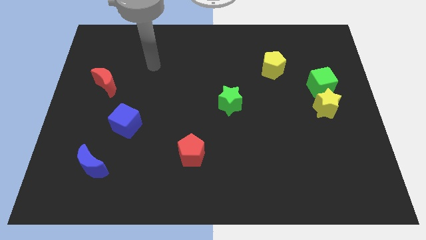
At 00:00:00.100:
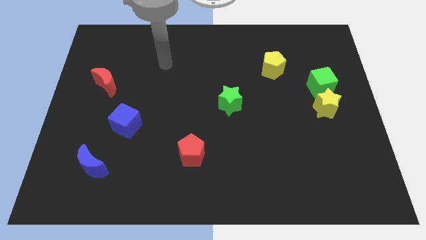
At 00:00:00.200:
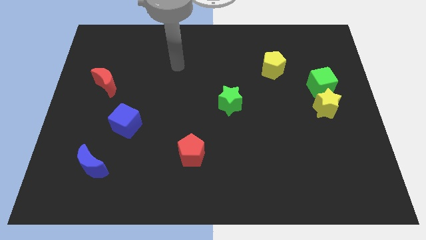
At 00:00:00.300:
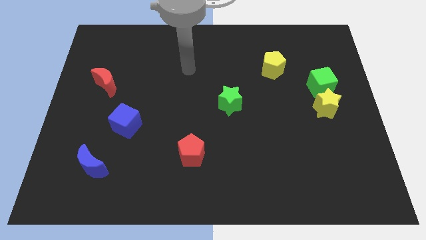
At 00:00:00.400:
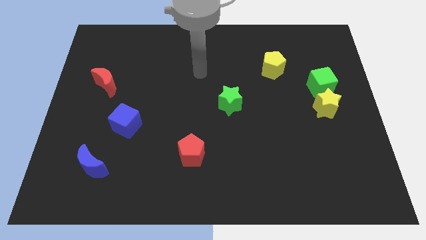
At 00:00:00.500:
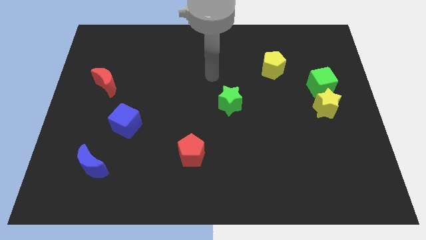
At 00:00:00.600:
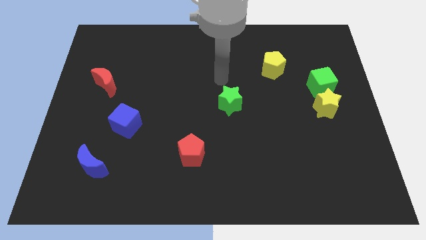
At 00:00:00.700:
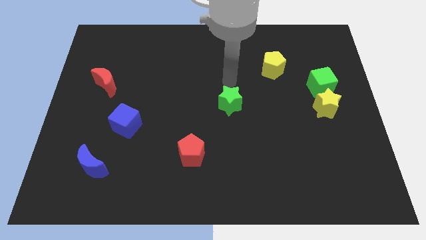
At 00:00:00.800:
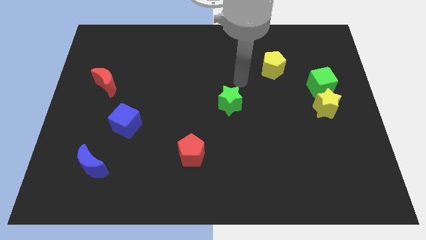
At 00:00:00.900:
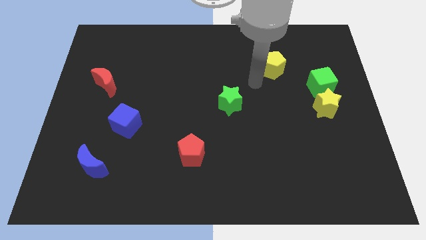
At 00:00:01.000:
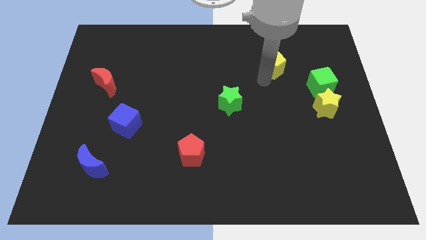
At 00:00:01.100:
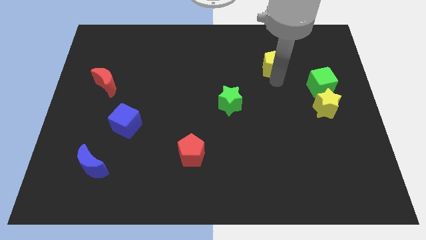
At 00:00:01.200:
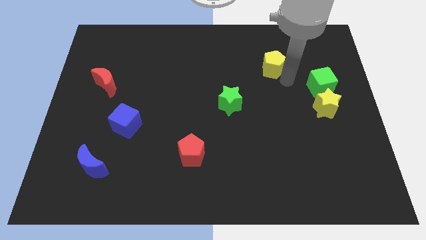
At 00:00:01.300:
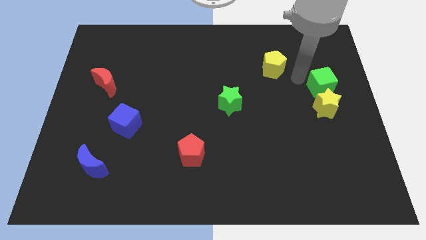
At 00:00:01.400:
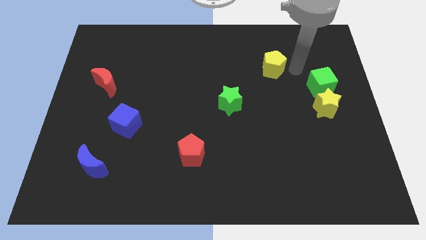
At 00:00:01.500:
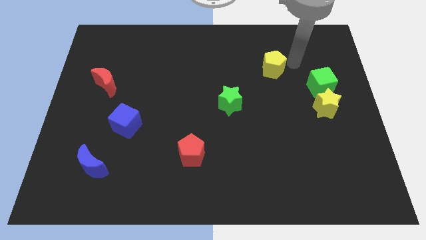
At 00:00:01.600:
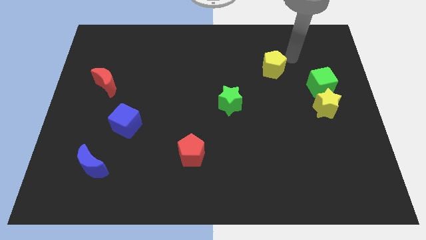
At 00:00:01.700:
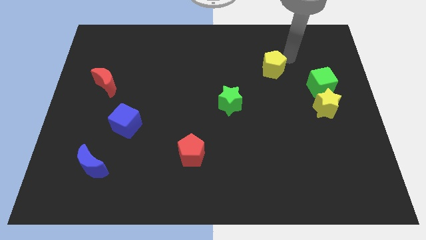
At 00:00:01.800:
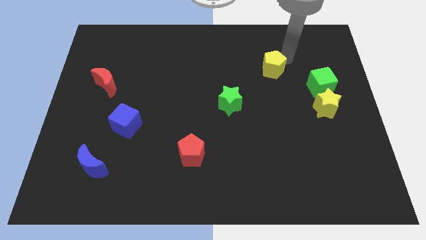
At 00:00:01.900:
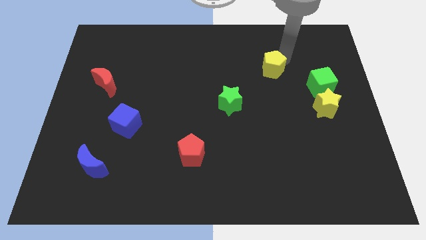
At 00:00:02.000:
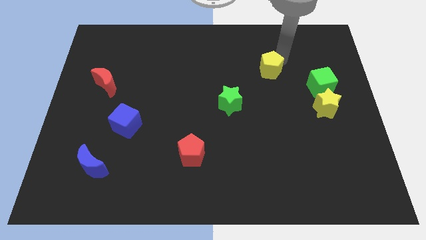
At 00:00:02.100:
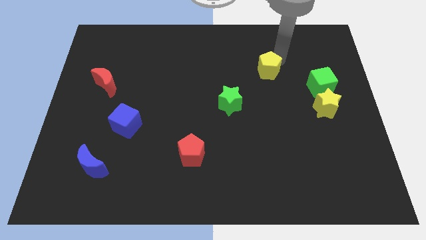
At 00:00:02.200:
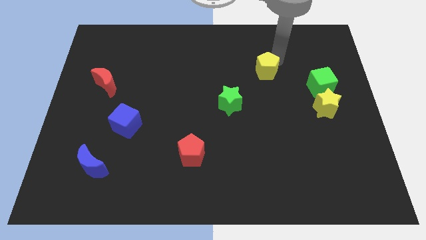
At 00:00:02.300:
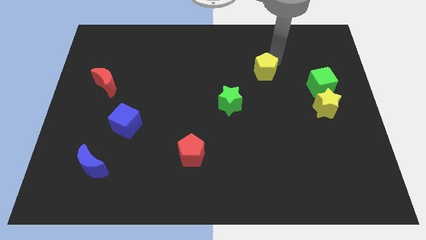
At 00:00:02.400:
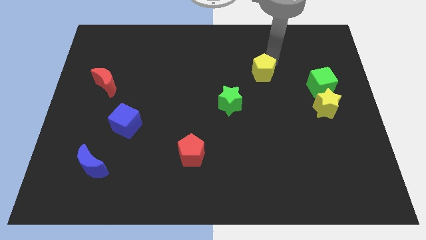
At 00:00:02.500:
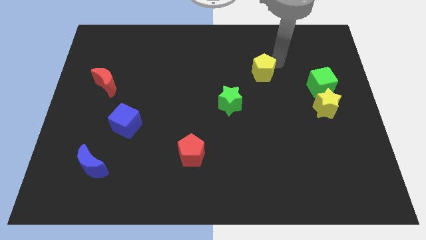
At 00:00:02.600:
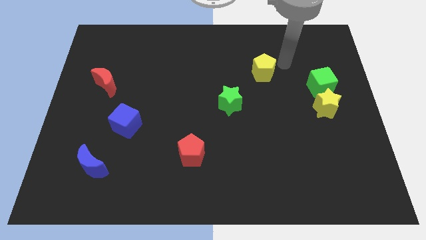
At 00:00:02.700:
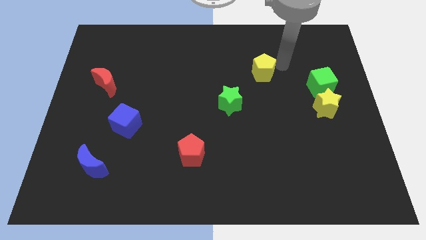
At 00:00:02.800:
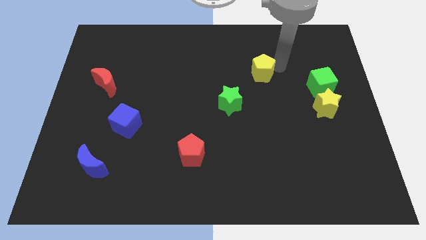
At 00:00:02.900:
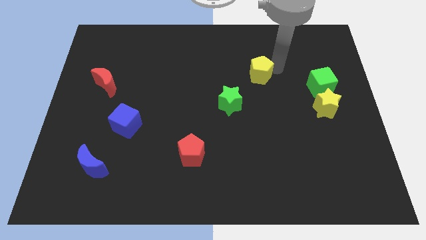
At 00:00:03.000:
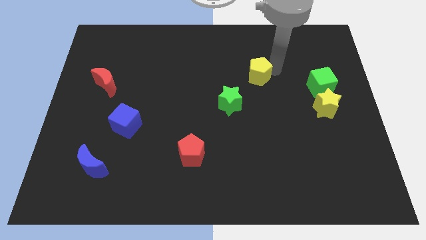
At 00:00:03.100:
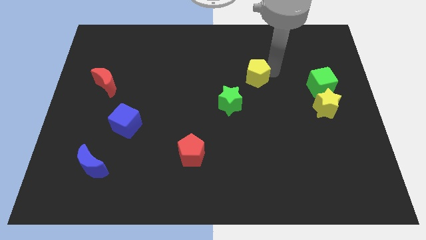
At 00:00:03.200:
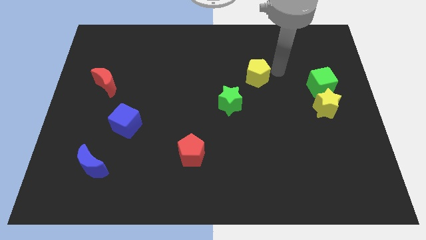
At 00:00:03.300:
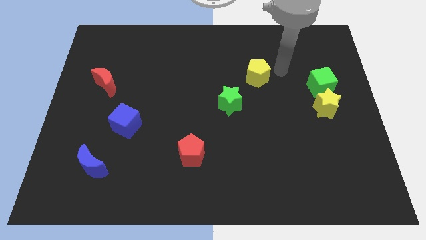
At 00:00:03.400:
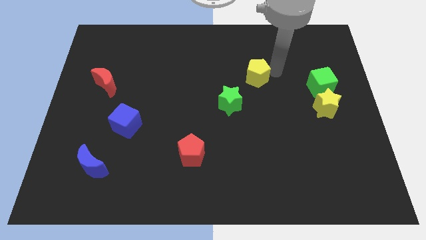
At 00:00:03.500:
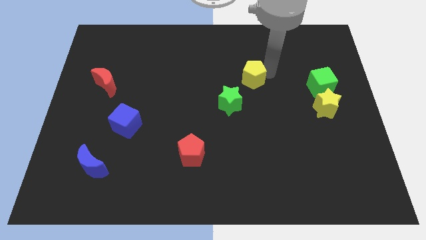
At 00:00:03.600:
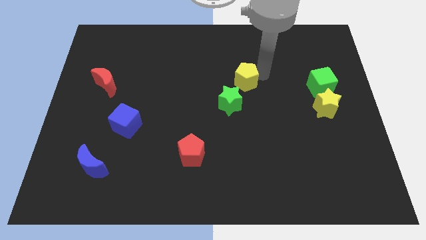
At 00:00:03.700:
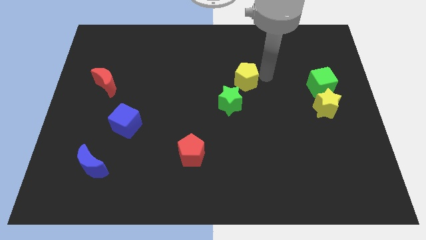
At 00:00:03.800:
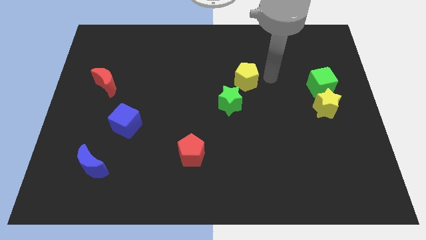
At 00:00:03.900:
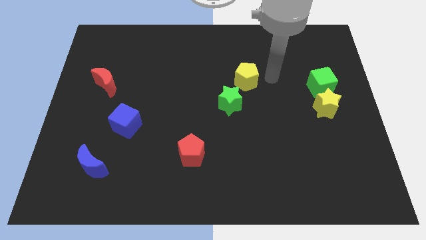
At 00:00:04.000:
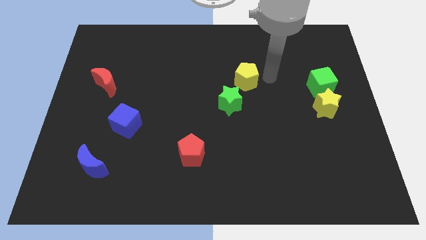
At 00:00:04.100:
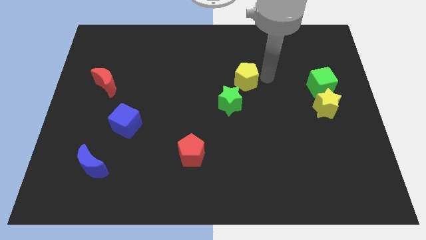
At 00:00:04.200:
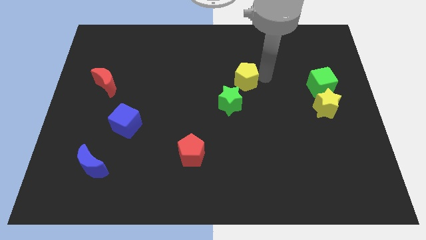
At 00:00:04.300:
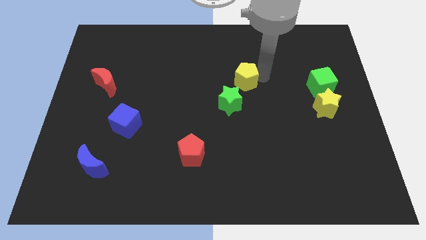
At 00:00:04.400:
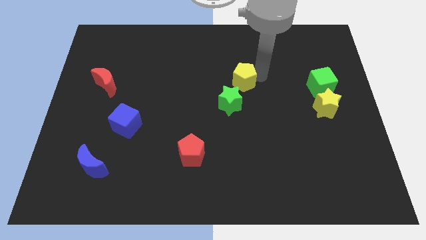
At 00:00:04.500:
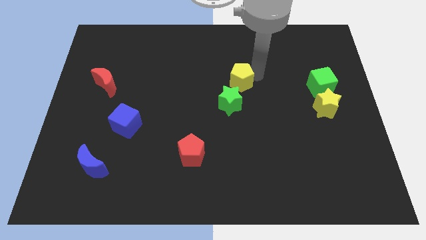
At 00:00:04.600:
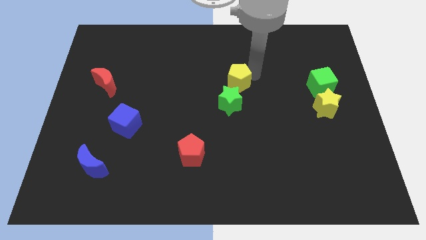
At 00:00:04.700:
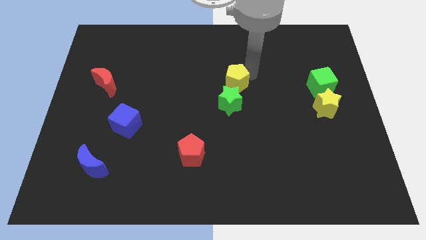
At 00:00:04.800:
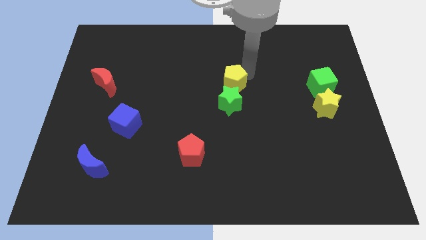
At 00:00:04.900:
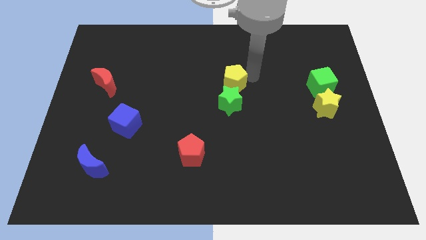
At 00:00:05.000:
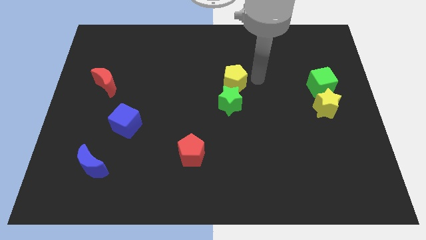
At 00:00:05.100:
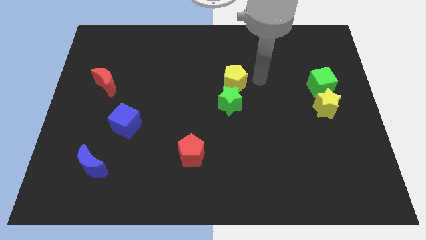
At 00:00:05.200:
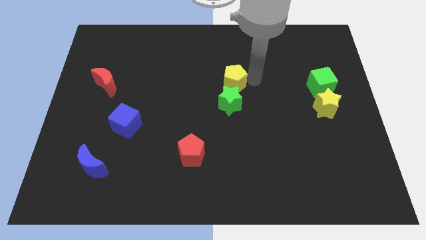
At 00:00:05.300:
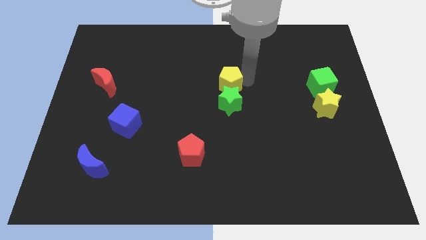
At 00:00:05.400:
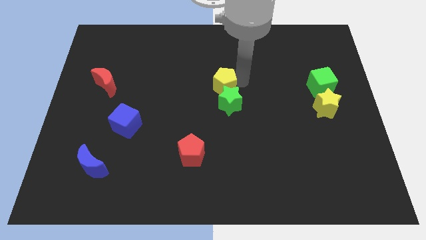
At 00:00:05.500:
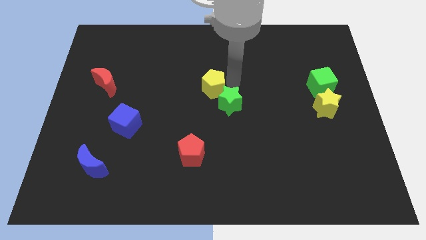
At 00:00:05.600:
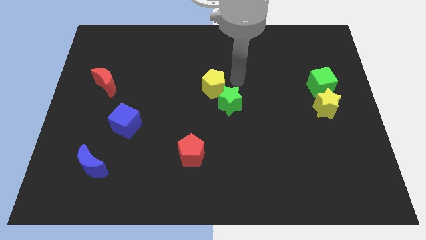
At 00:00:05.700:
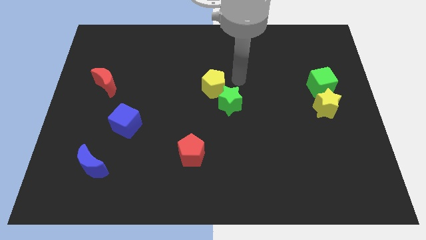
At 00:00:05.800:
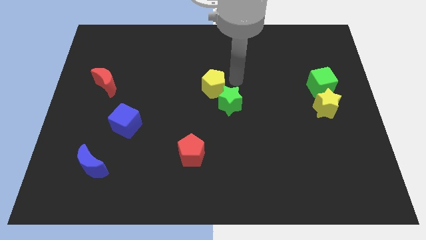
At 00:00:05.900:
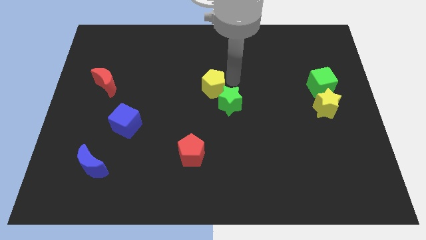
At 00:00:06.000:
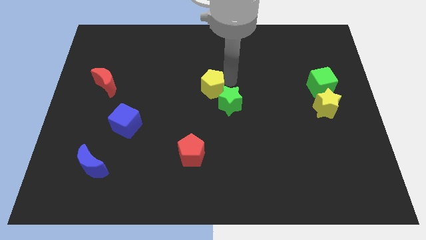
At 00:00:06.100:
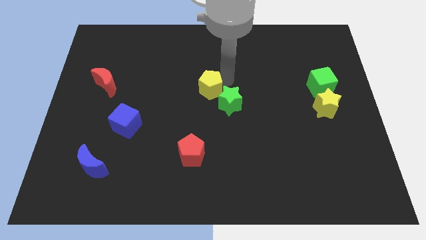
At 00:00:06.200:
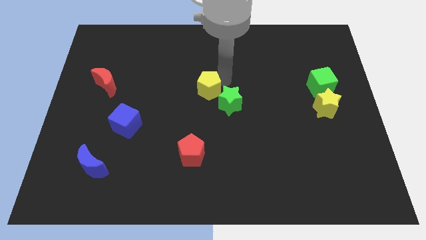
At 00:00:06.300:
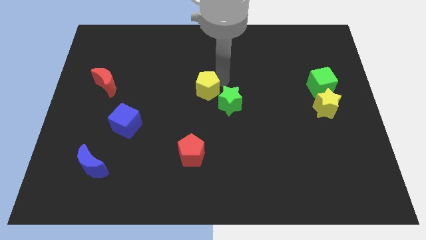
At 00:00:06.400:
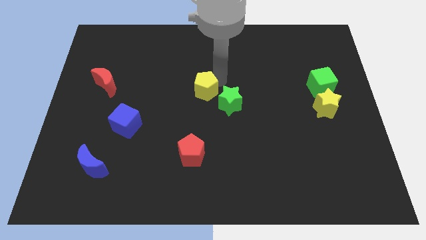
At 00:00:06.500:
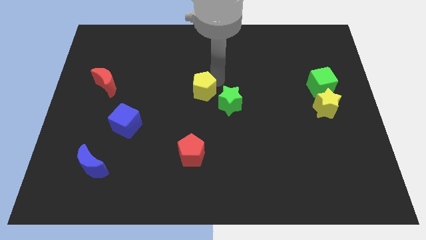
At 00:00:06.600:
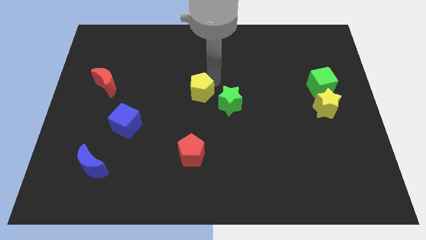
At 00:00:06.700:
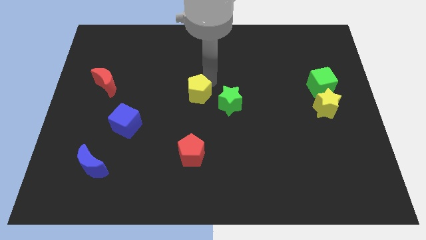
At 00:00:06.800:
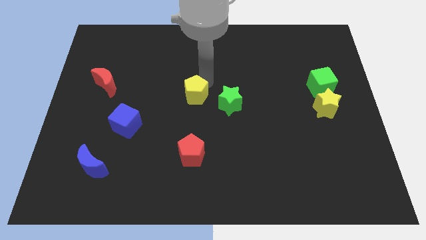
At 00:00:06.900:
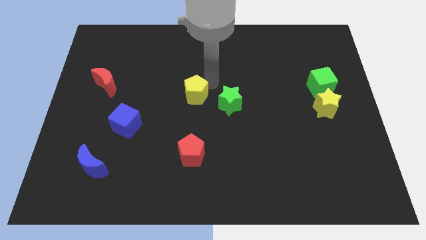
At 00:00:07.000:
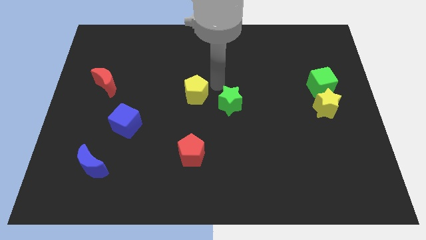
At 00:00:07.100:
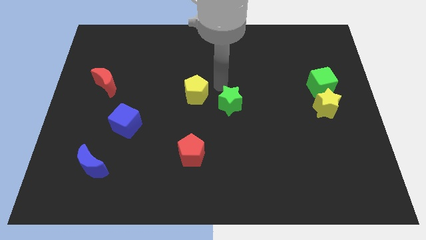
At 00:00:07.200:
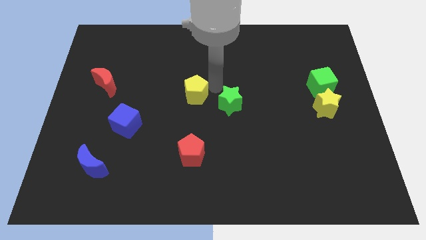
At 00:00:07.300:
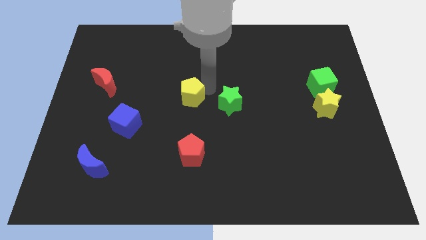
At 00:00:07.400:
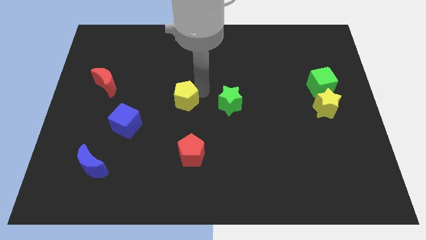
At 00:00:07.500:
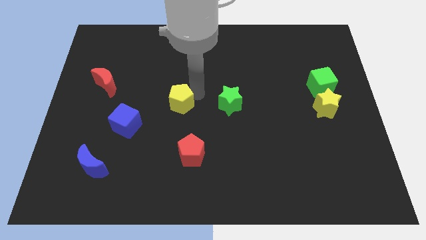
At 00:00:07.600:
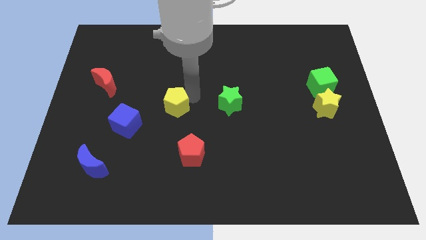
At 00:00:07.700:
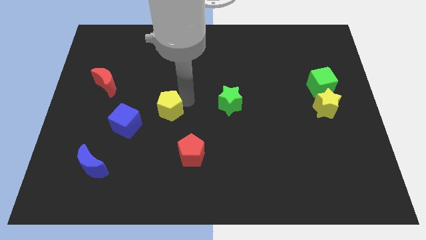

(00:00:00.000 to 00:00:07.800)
slide the yellow pentagon diagonally up and to the right of the blue cube
